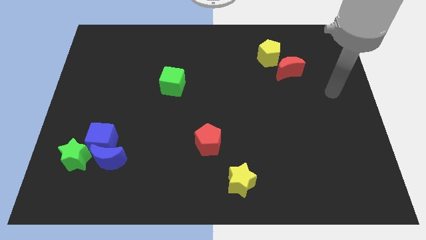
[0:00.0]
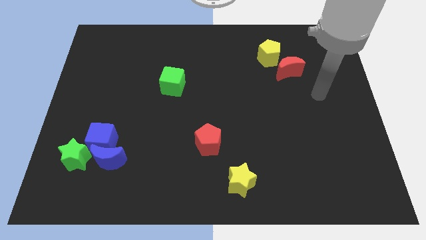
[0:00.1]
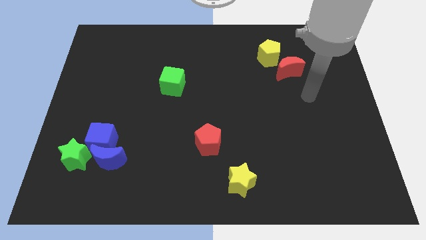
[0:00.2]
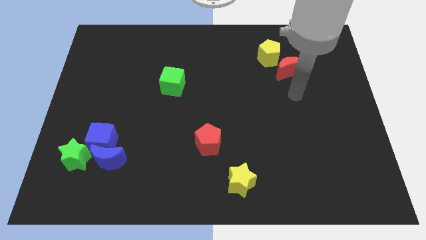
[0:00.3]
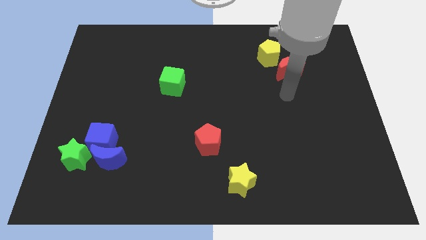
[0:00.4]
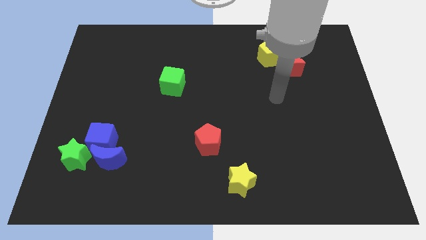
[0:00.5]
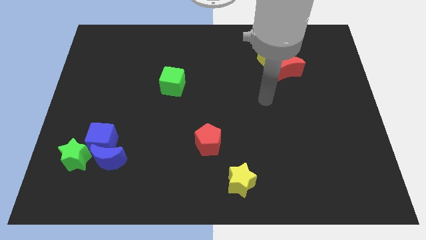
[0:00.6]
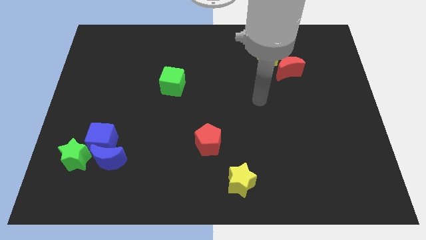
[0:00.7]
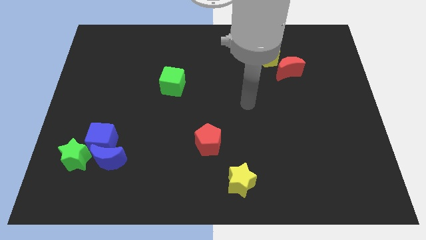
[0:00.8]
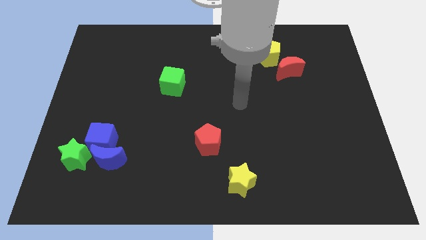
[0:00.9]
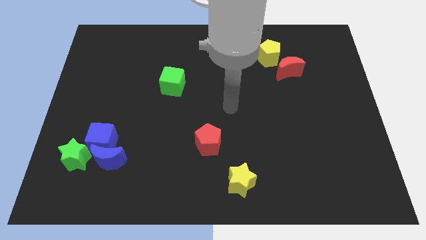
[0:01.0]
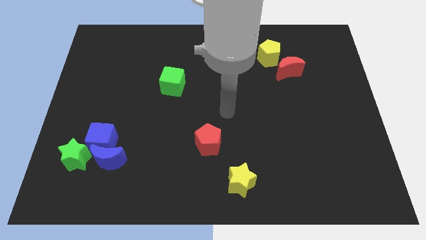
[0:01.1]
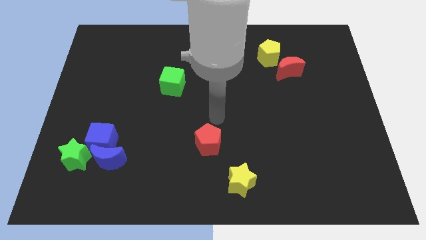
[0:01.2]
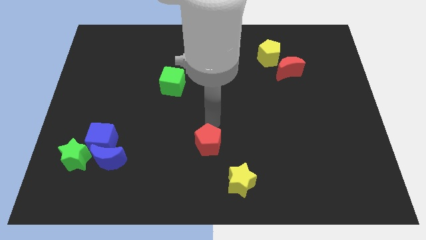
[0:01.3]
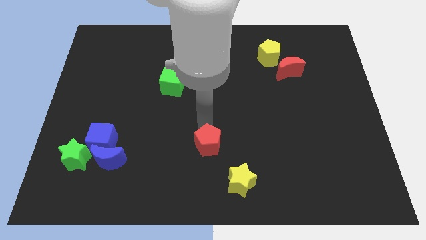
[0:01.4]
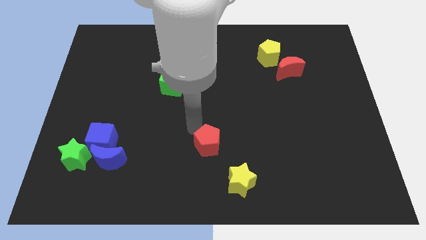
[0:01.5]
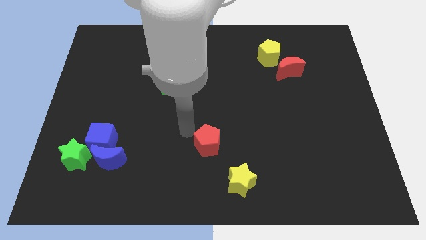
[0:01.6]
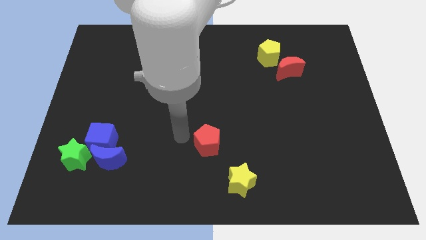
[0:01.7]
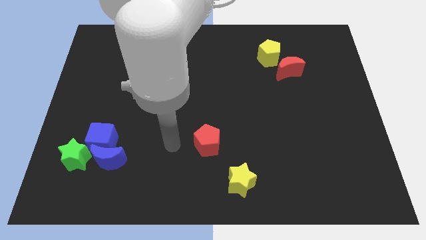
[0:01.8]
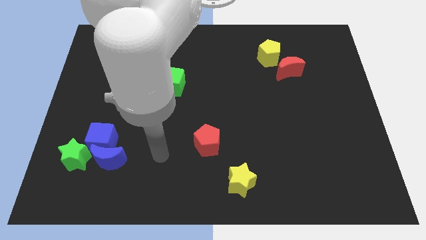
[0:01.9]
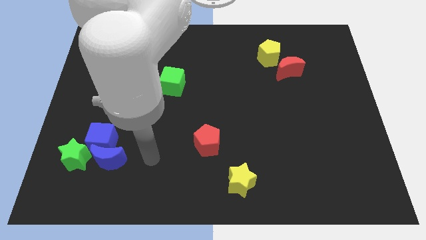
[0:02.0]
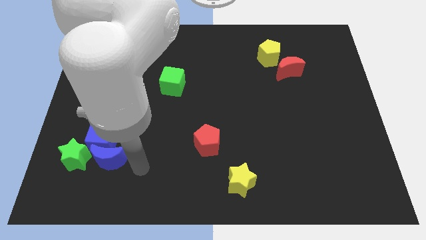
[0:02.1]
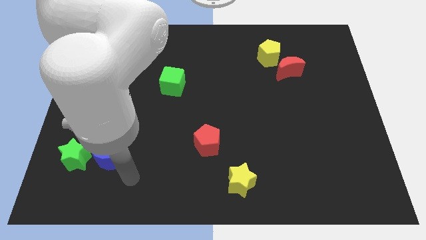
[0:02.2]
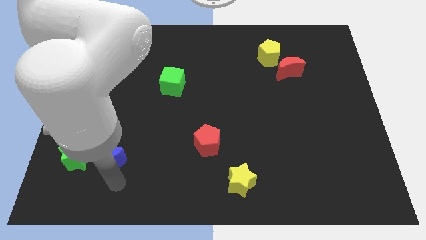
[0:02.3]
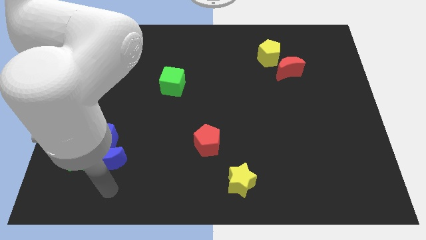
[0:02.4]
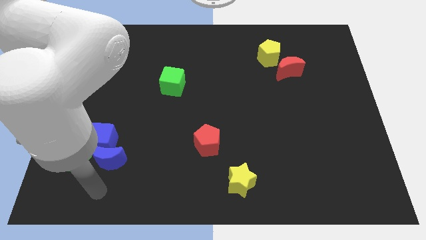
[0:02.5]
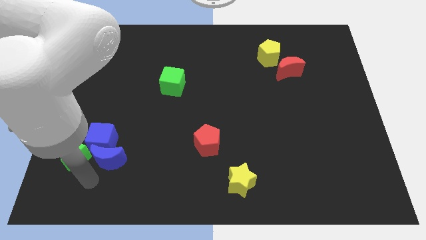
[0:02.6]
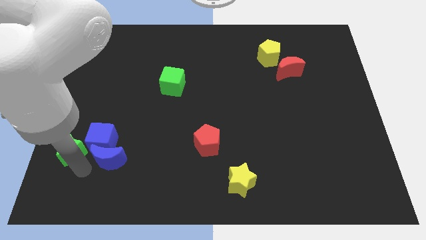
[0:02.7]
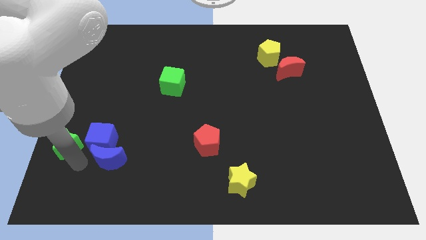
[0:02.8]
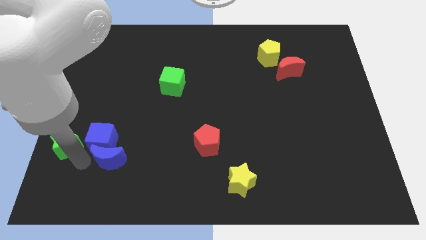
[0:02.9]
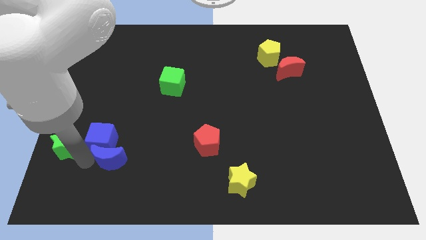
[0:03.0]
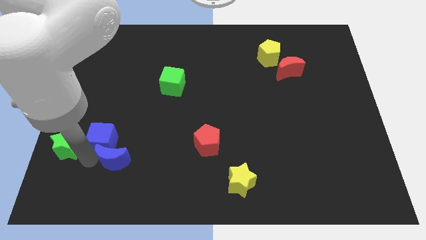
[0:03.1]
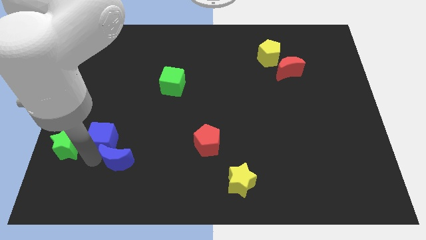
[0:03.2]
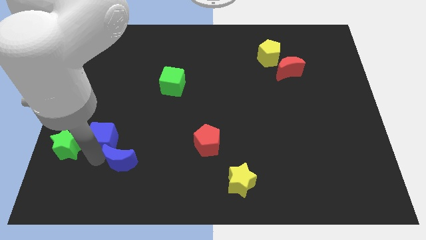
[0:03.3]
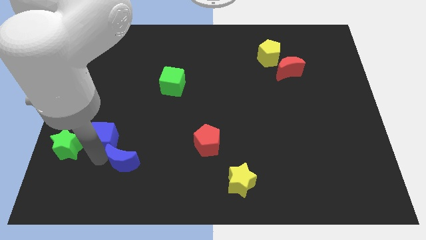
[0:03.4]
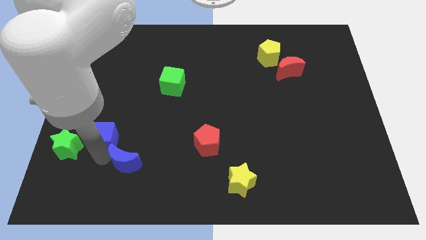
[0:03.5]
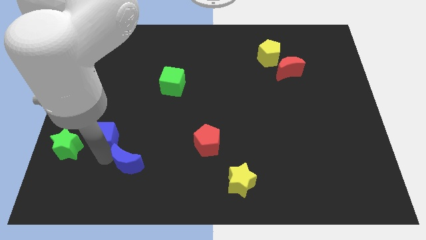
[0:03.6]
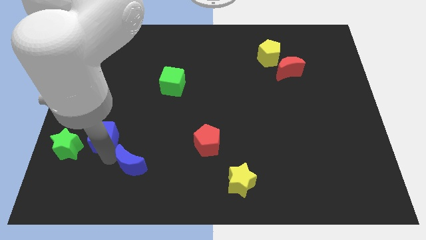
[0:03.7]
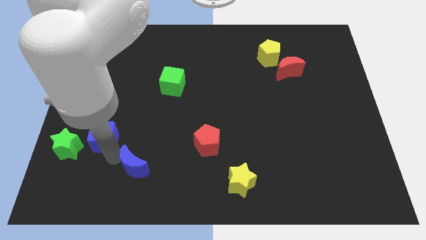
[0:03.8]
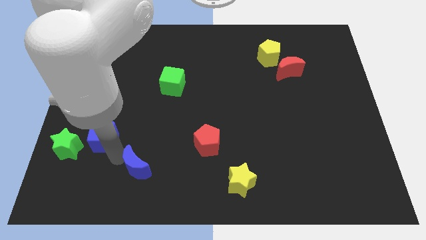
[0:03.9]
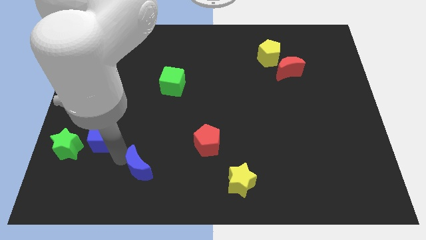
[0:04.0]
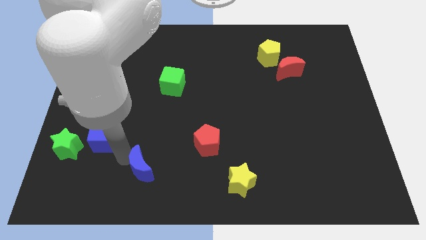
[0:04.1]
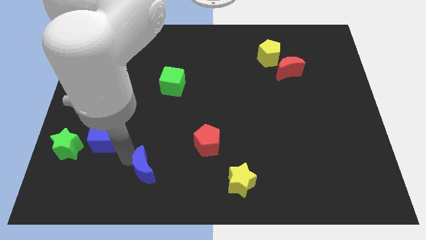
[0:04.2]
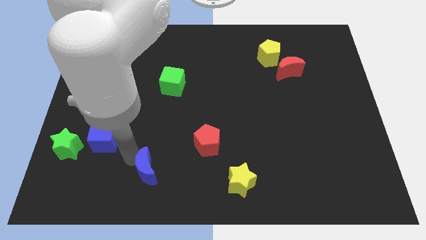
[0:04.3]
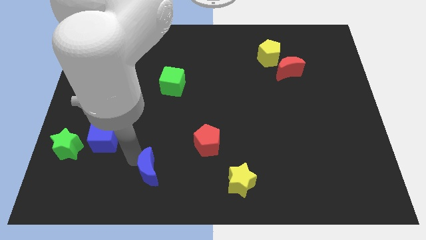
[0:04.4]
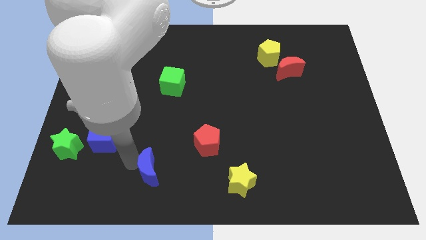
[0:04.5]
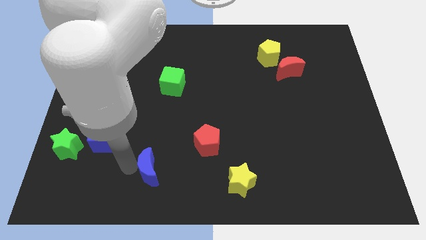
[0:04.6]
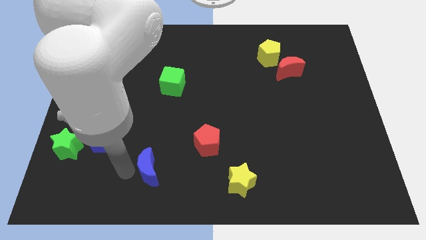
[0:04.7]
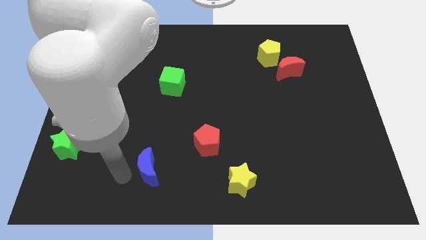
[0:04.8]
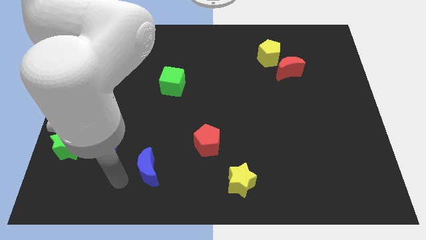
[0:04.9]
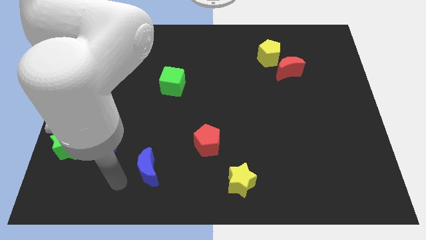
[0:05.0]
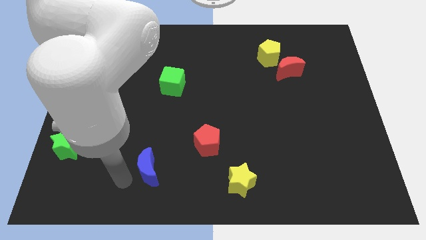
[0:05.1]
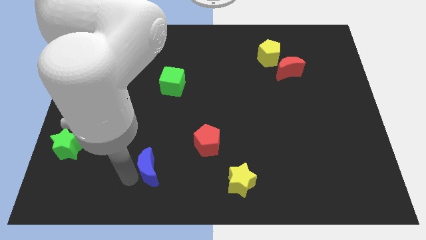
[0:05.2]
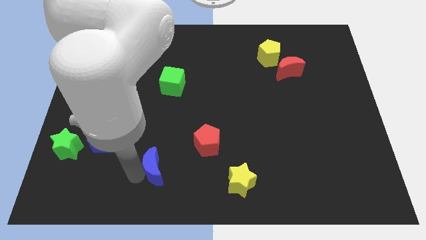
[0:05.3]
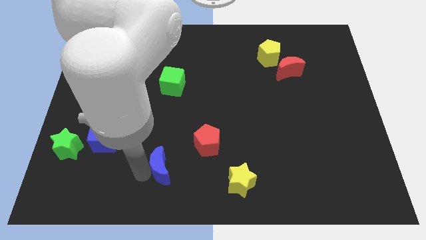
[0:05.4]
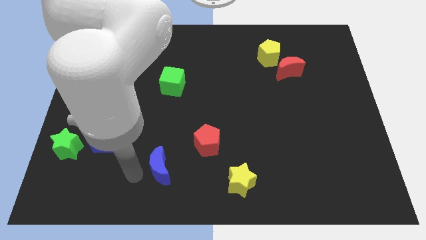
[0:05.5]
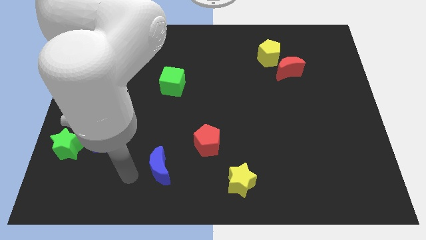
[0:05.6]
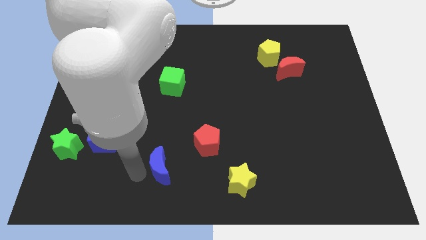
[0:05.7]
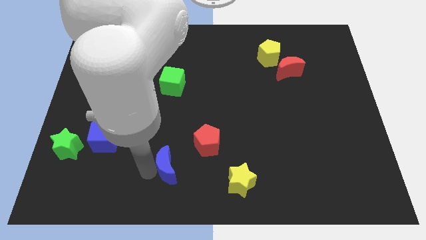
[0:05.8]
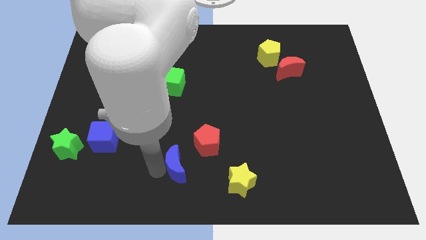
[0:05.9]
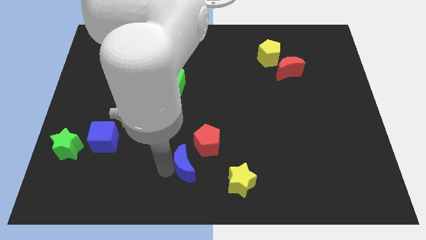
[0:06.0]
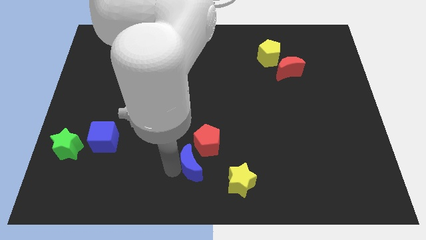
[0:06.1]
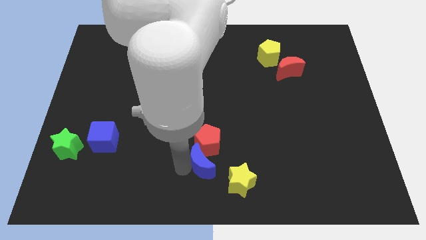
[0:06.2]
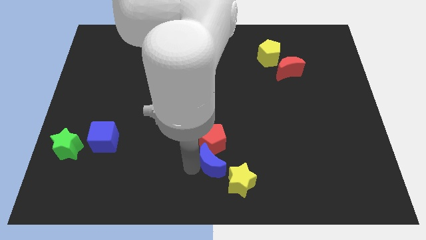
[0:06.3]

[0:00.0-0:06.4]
move the blue moon right

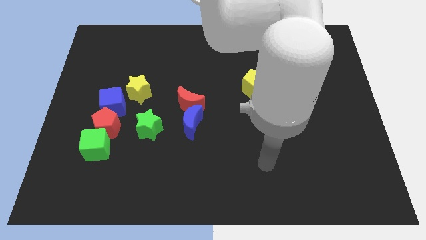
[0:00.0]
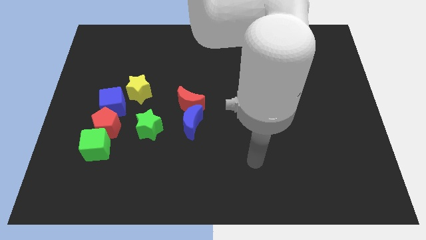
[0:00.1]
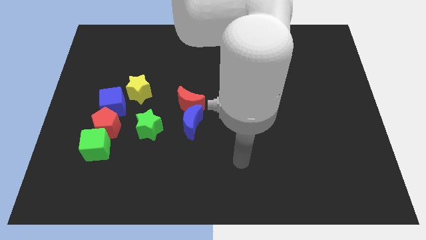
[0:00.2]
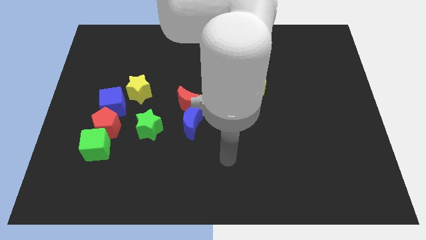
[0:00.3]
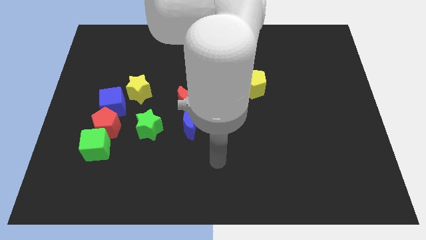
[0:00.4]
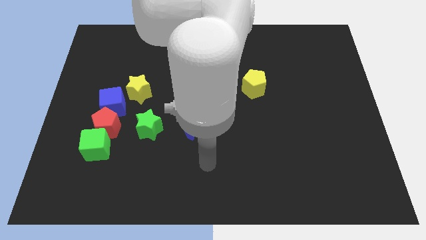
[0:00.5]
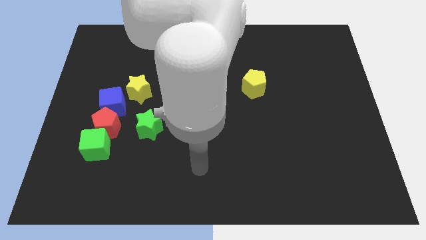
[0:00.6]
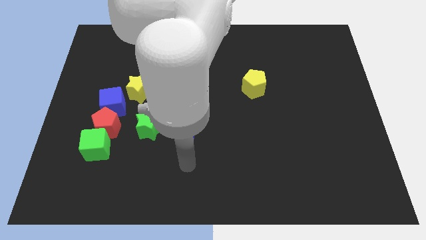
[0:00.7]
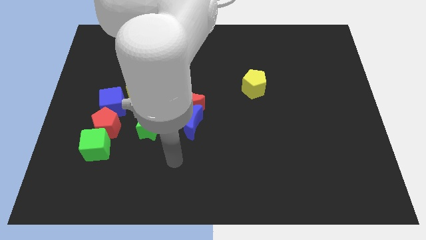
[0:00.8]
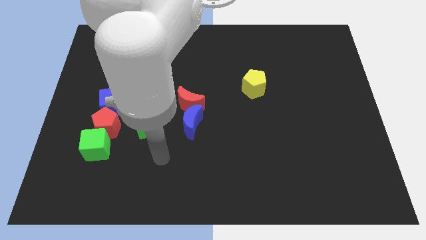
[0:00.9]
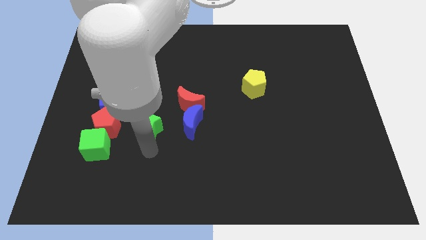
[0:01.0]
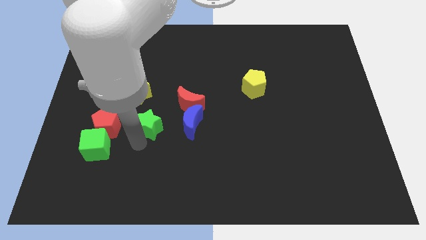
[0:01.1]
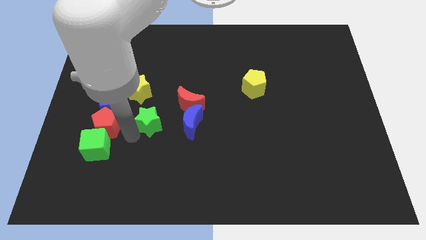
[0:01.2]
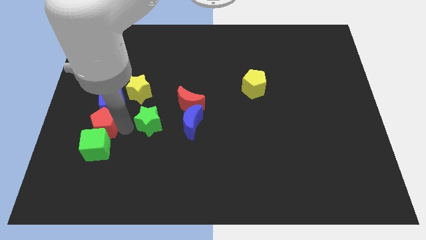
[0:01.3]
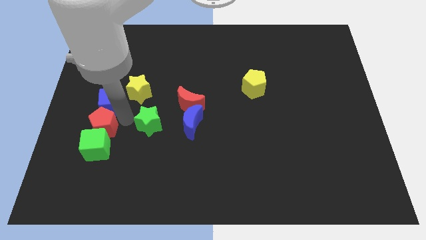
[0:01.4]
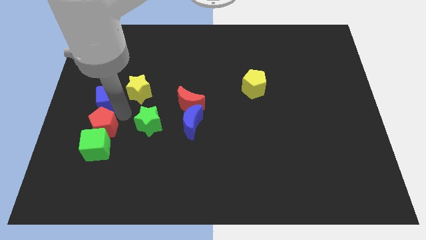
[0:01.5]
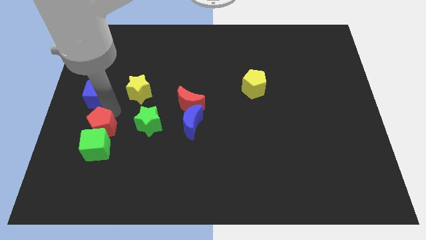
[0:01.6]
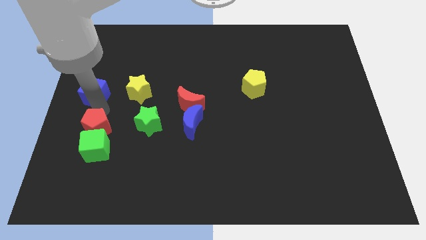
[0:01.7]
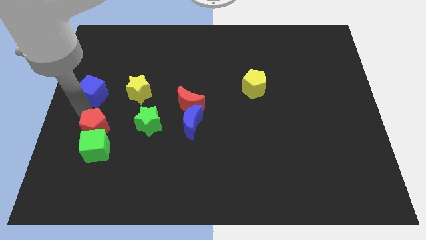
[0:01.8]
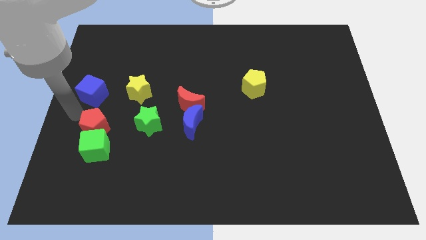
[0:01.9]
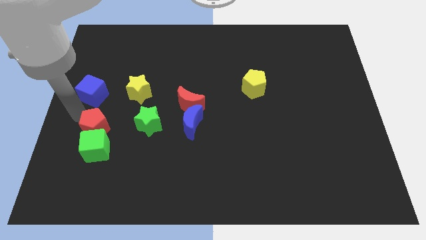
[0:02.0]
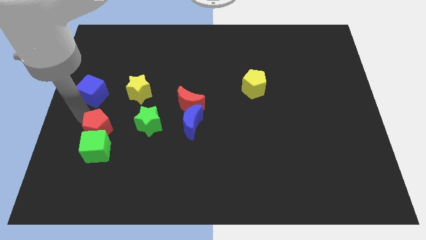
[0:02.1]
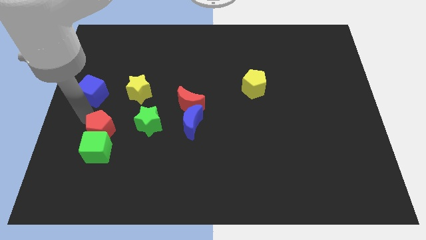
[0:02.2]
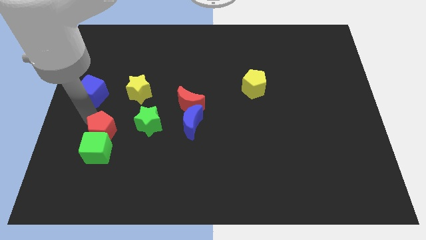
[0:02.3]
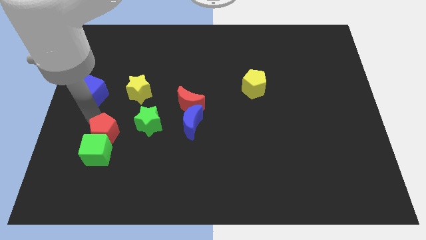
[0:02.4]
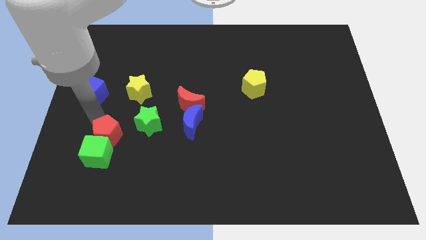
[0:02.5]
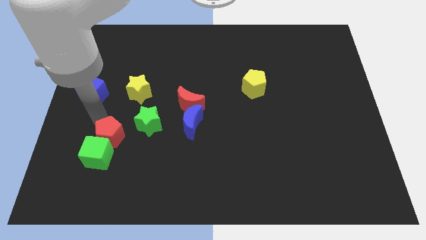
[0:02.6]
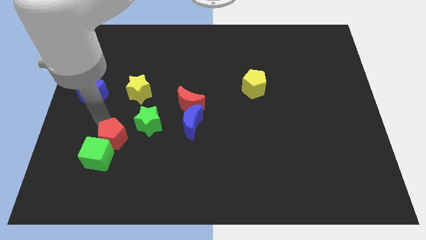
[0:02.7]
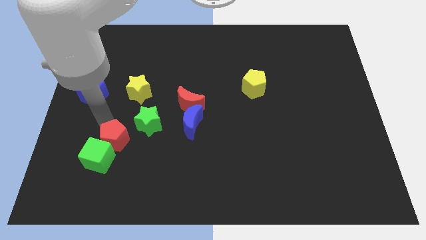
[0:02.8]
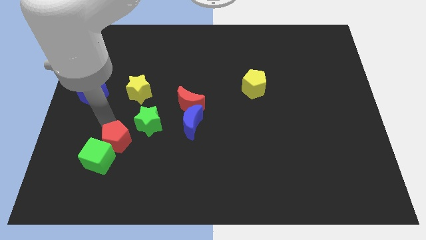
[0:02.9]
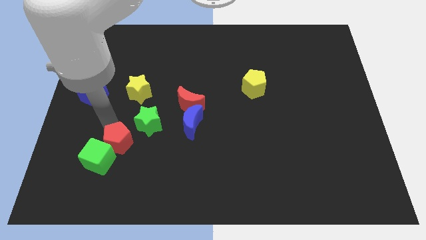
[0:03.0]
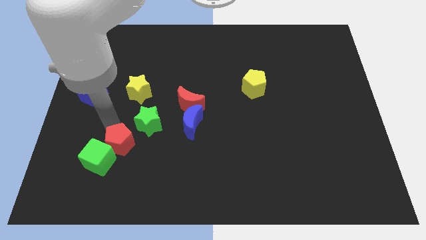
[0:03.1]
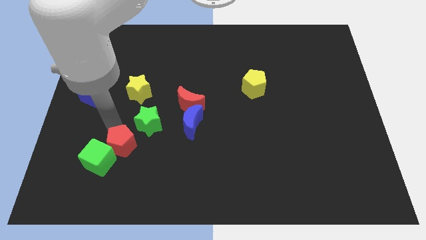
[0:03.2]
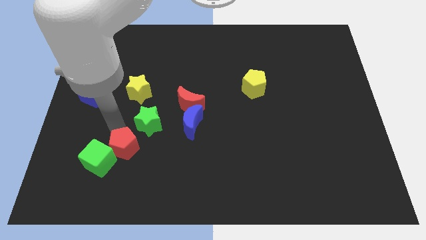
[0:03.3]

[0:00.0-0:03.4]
slightly push the red pentagon downwards and to the right
